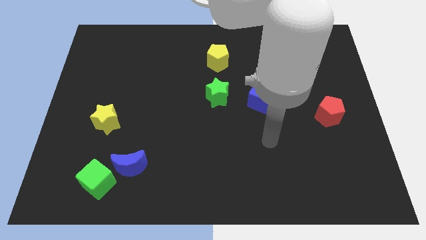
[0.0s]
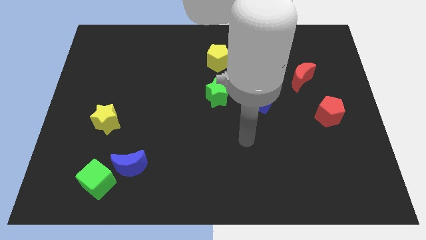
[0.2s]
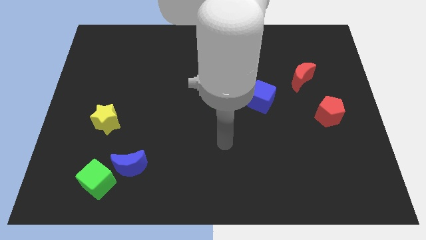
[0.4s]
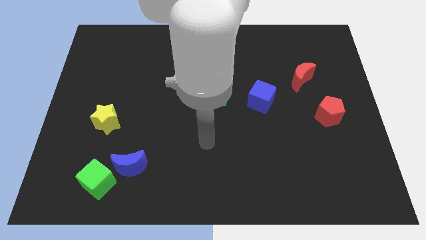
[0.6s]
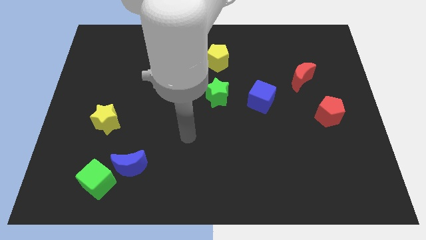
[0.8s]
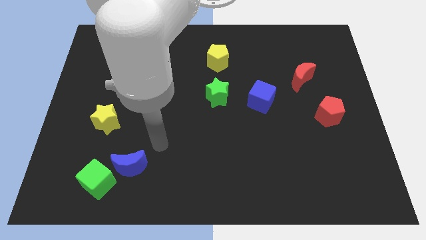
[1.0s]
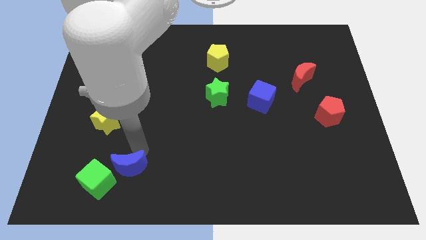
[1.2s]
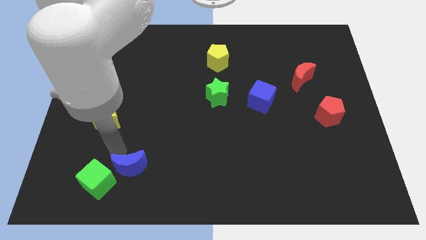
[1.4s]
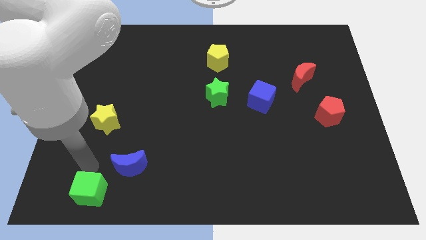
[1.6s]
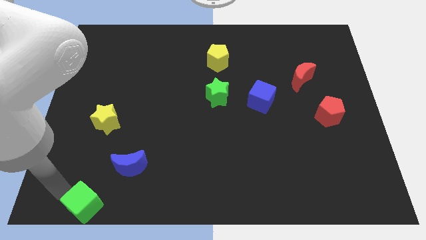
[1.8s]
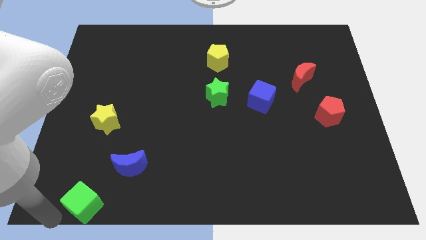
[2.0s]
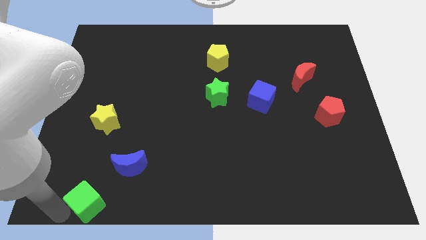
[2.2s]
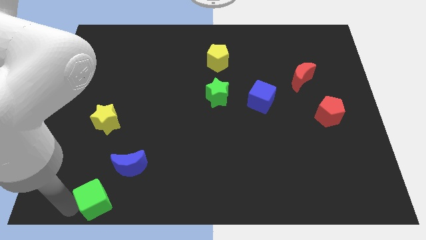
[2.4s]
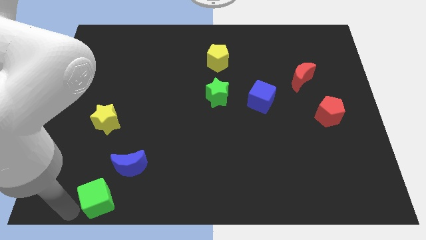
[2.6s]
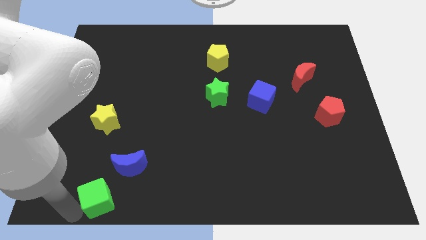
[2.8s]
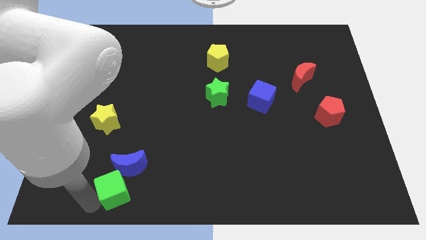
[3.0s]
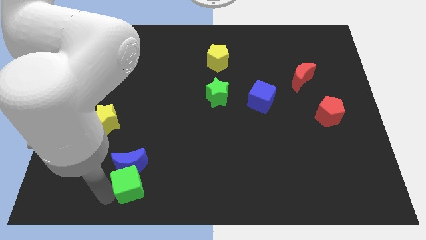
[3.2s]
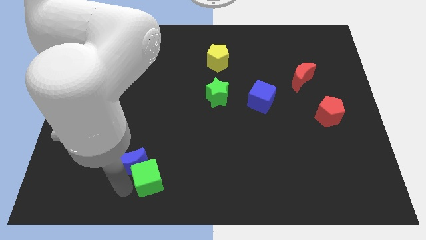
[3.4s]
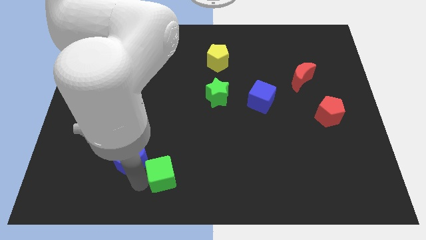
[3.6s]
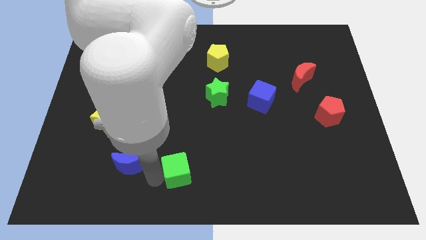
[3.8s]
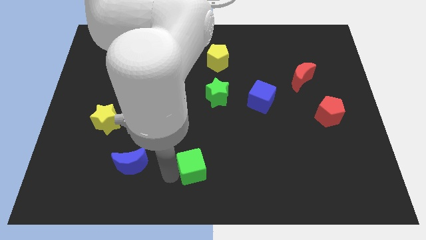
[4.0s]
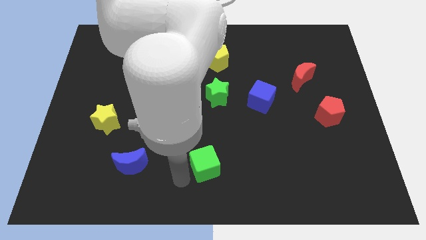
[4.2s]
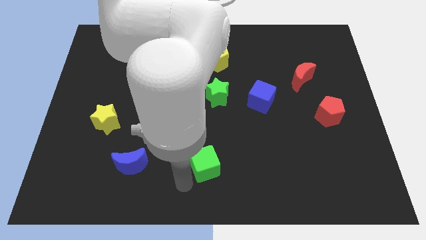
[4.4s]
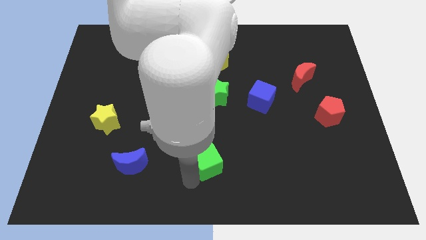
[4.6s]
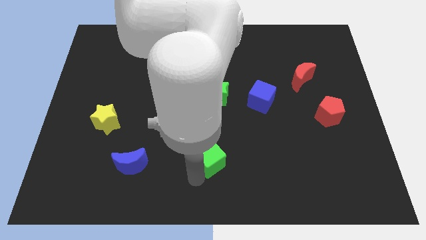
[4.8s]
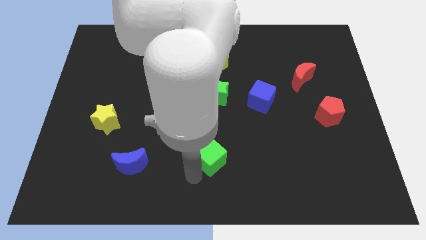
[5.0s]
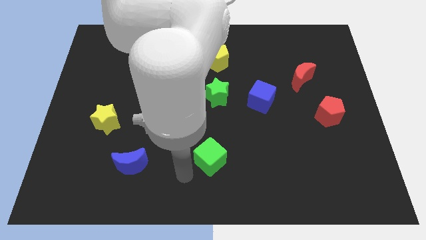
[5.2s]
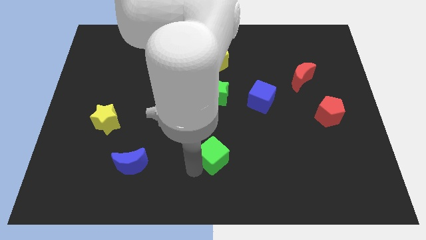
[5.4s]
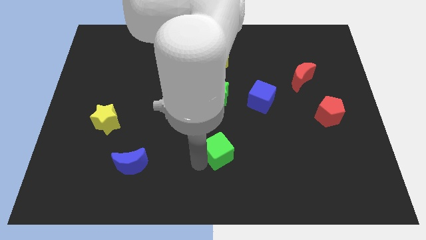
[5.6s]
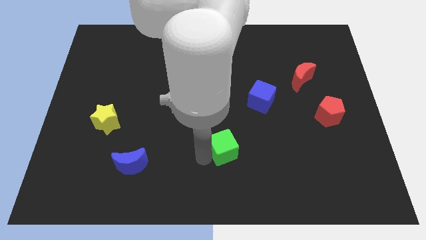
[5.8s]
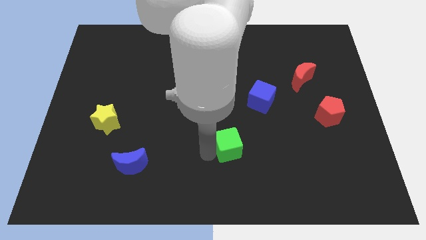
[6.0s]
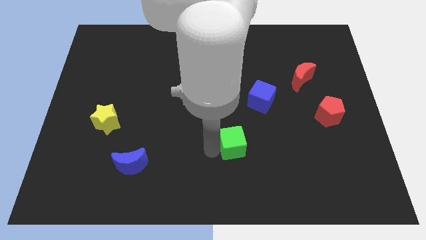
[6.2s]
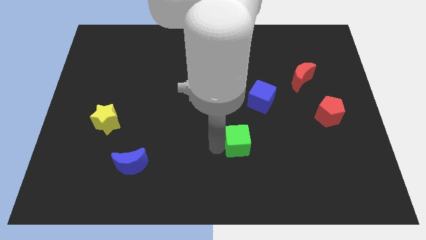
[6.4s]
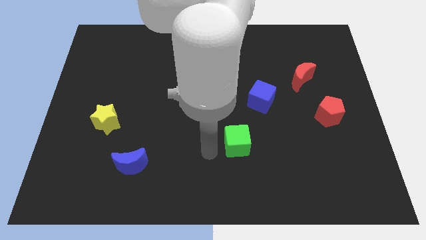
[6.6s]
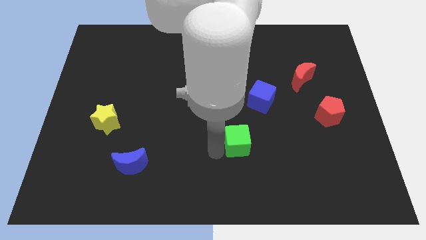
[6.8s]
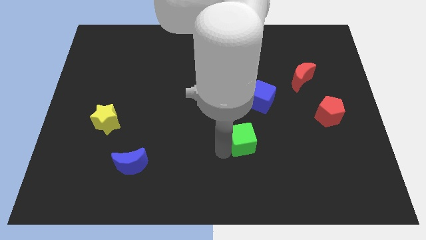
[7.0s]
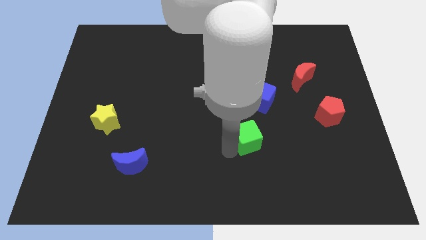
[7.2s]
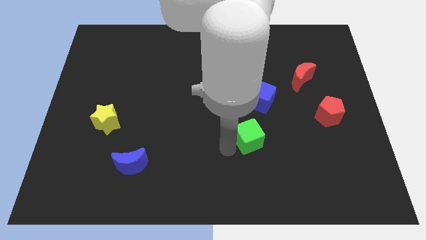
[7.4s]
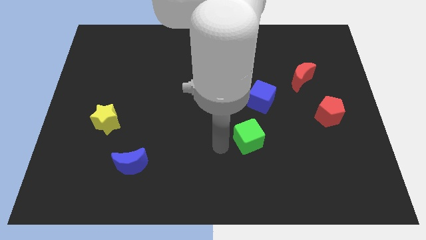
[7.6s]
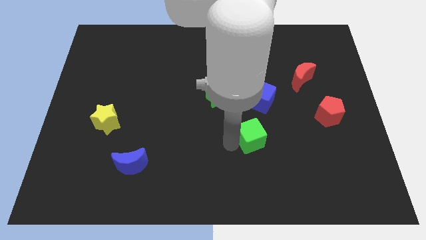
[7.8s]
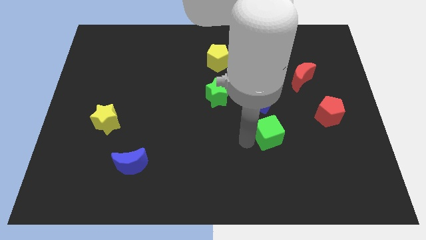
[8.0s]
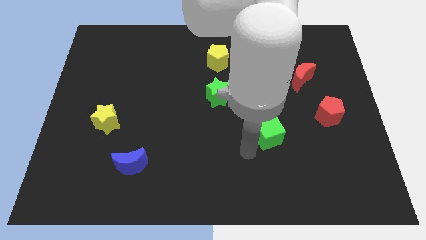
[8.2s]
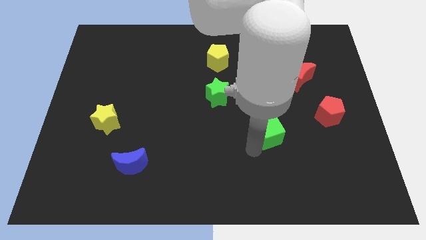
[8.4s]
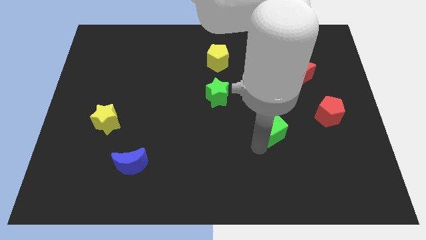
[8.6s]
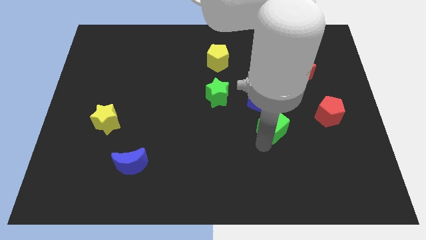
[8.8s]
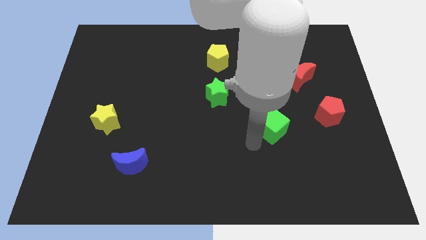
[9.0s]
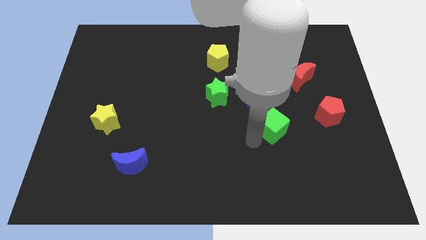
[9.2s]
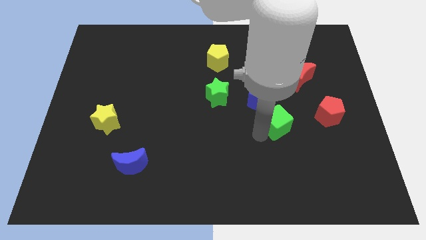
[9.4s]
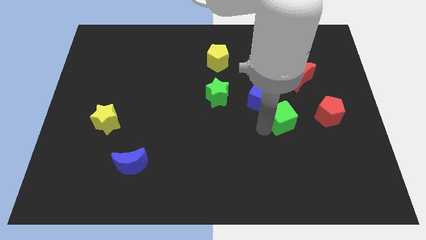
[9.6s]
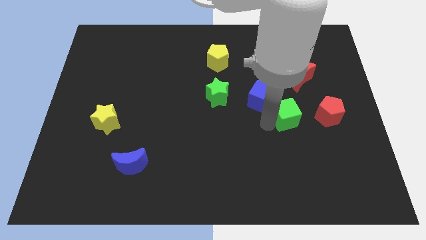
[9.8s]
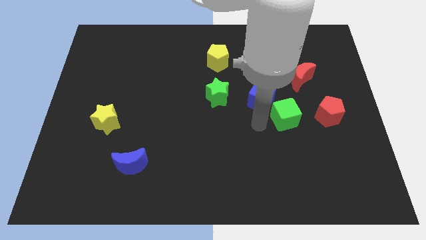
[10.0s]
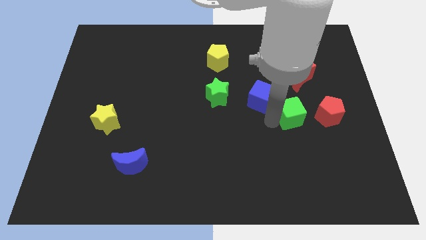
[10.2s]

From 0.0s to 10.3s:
move the green cube to the bottom of the red moon

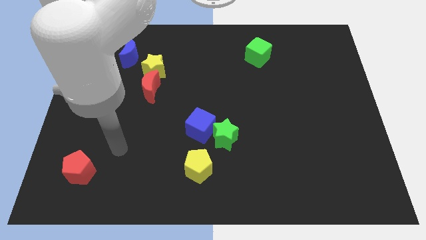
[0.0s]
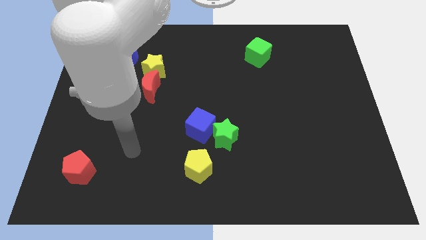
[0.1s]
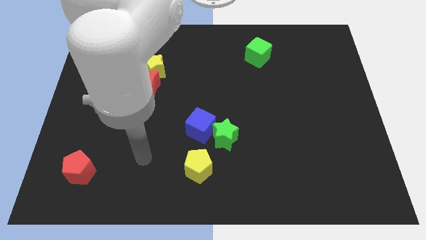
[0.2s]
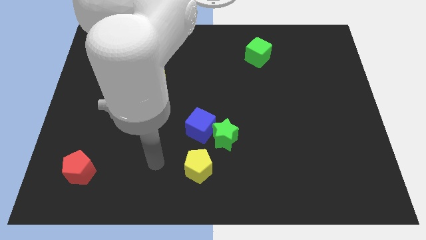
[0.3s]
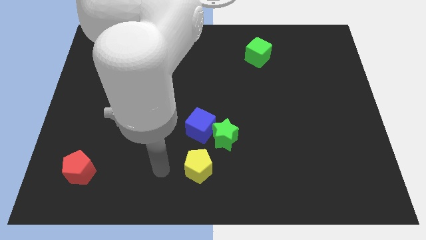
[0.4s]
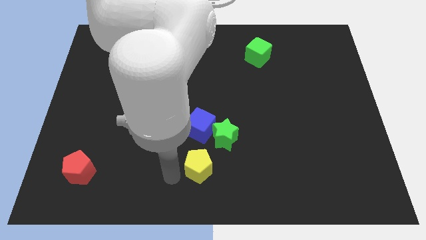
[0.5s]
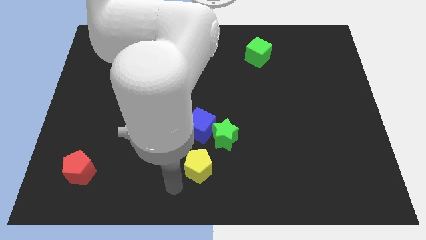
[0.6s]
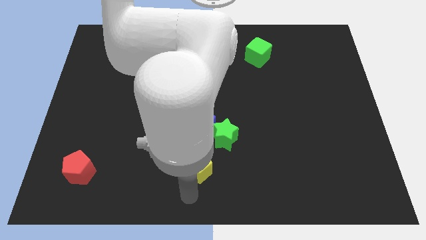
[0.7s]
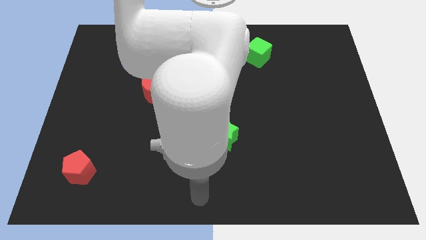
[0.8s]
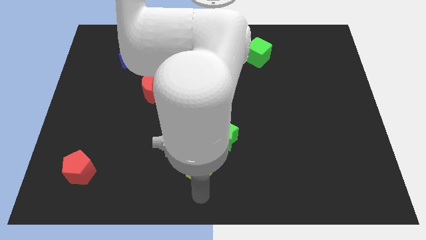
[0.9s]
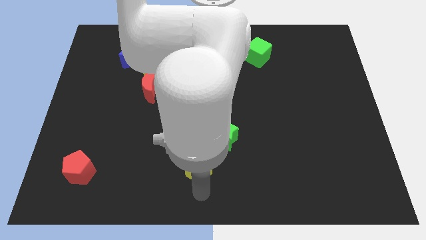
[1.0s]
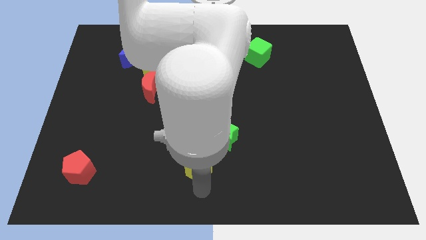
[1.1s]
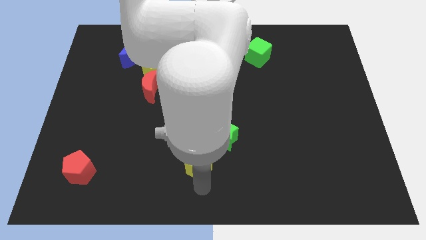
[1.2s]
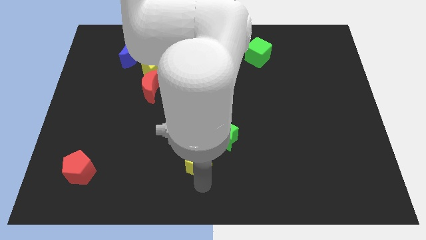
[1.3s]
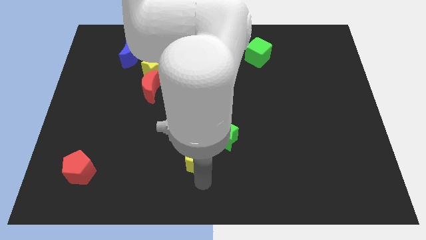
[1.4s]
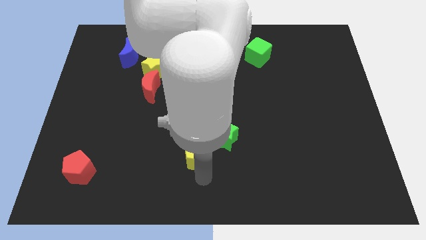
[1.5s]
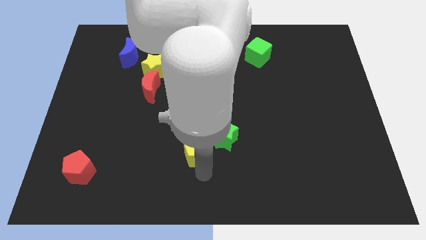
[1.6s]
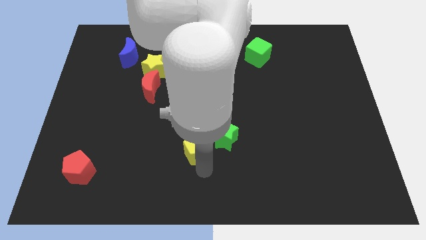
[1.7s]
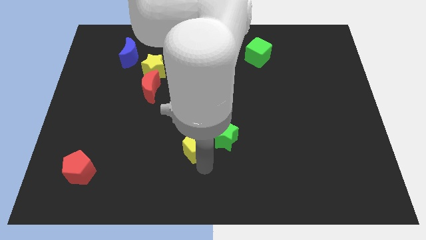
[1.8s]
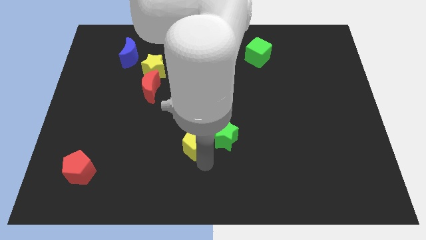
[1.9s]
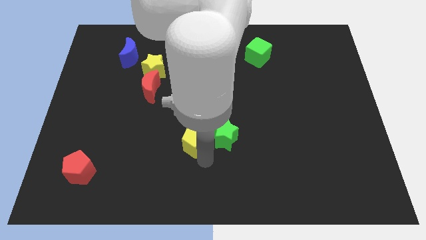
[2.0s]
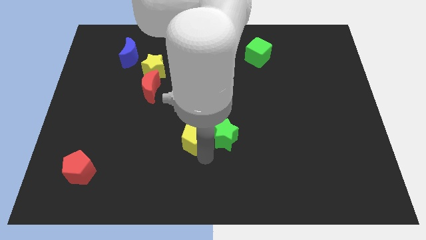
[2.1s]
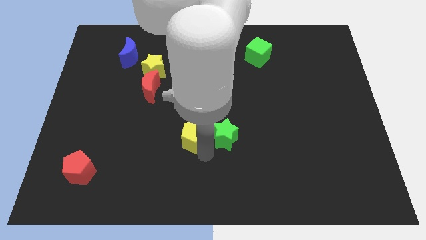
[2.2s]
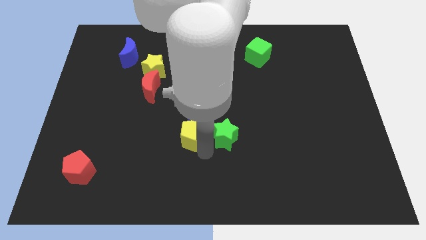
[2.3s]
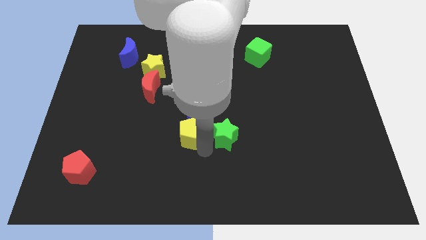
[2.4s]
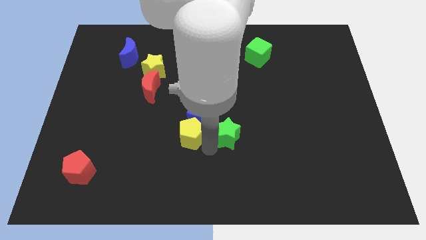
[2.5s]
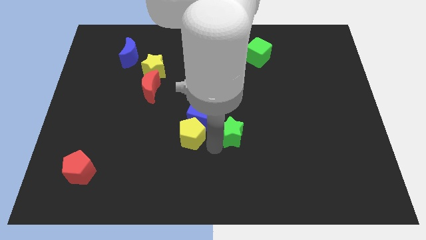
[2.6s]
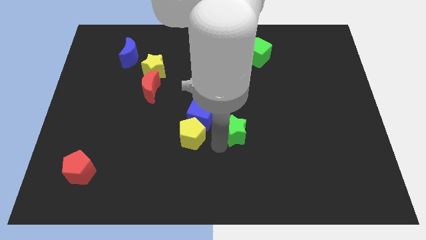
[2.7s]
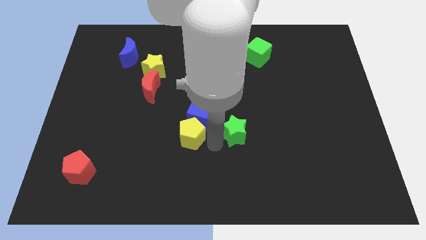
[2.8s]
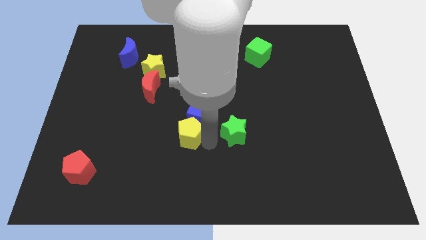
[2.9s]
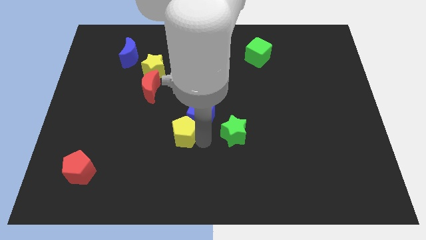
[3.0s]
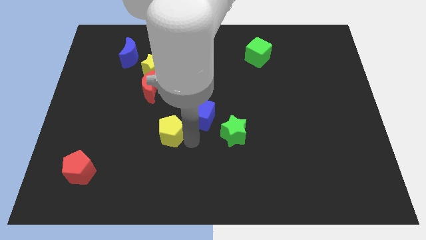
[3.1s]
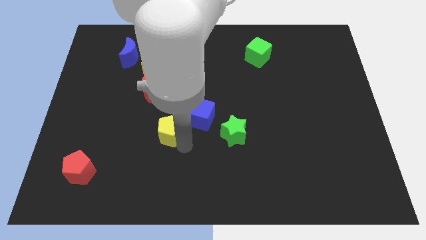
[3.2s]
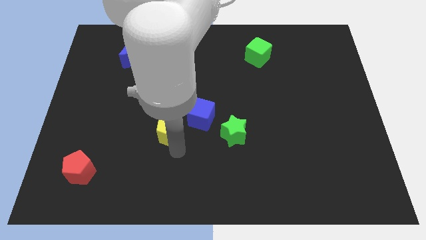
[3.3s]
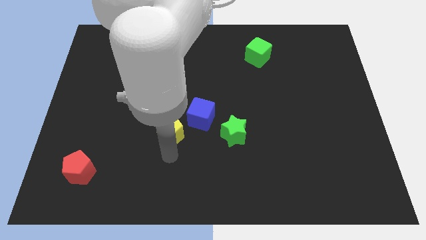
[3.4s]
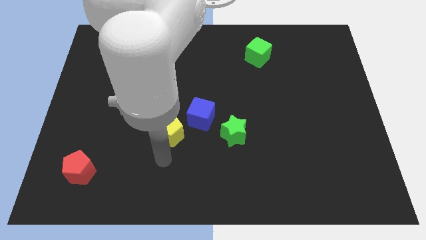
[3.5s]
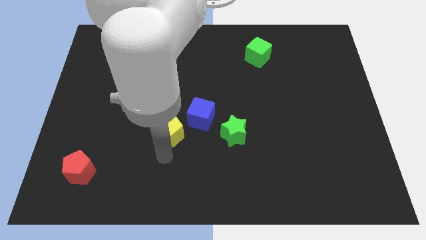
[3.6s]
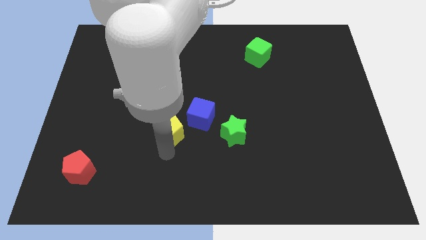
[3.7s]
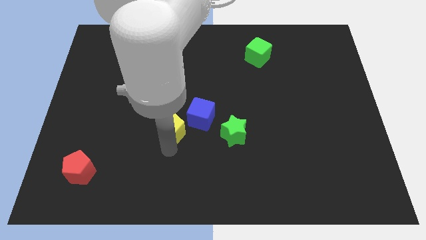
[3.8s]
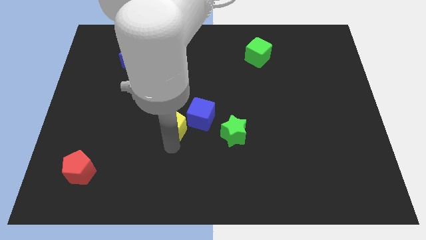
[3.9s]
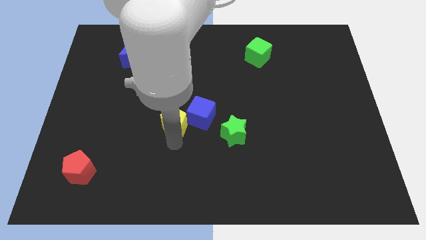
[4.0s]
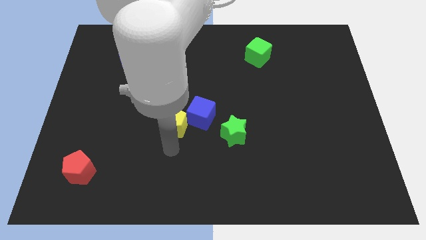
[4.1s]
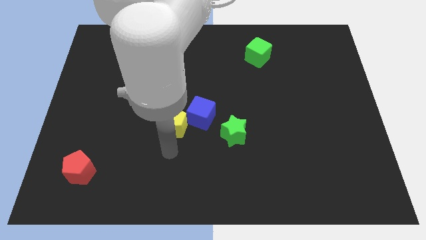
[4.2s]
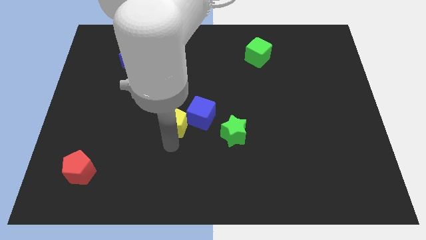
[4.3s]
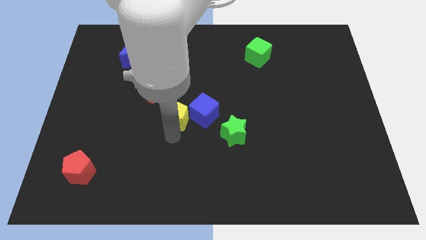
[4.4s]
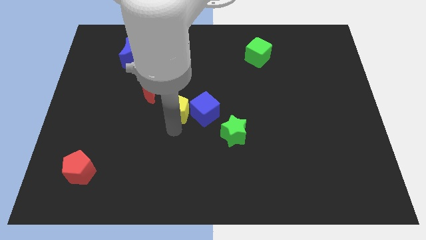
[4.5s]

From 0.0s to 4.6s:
slide the yellow pentagon to the top left side of the blue cube
